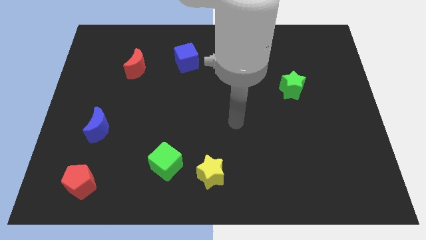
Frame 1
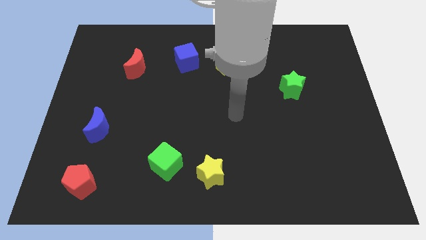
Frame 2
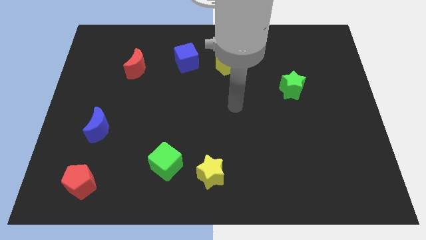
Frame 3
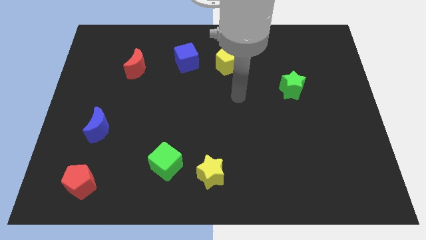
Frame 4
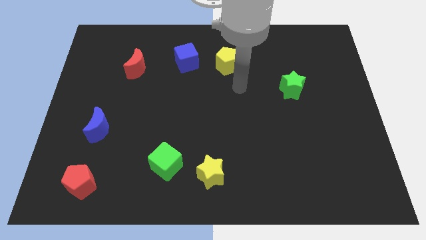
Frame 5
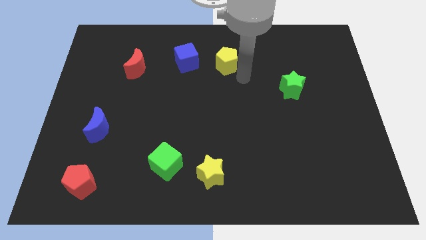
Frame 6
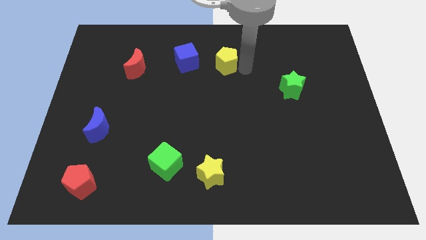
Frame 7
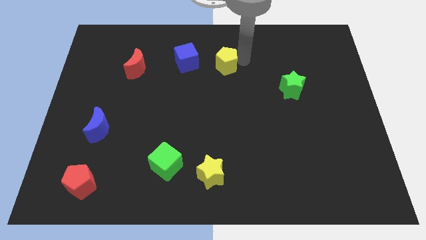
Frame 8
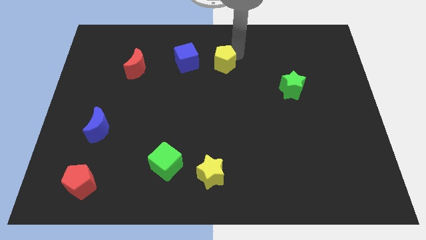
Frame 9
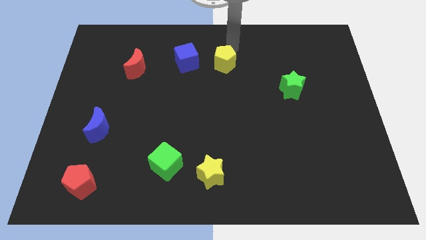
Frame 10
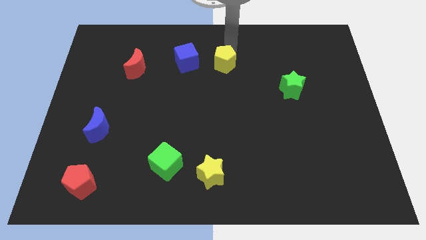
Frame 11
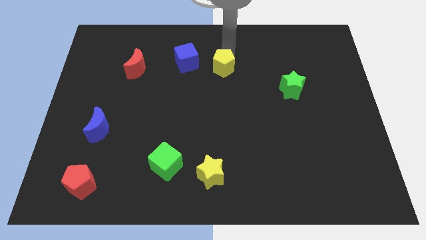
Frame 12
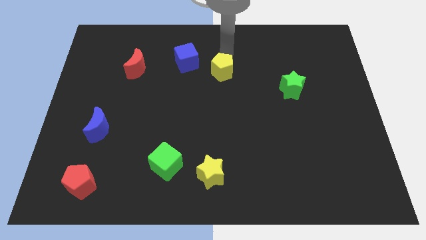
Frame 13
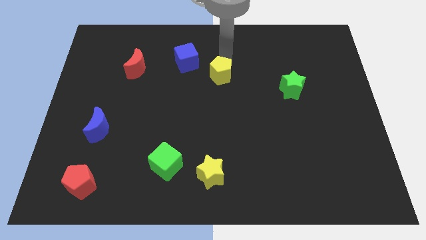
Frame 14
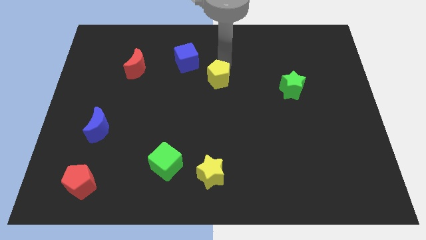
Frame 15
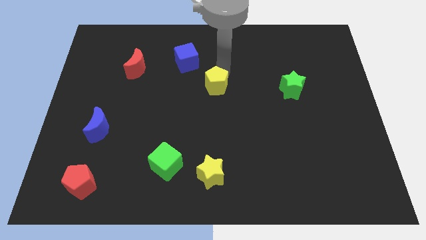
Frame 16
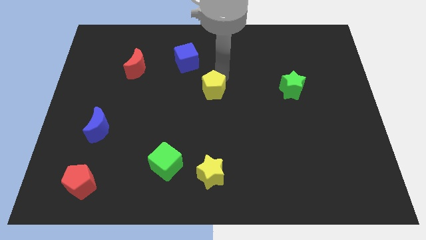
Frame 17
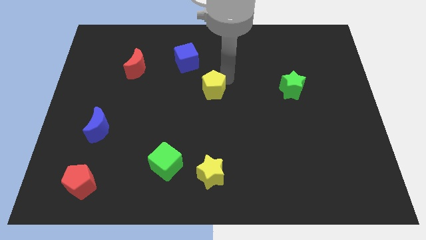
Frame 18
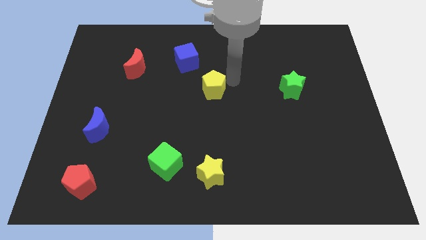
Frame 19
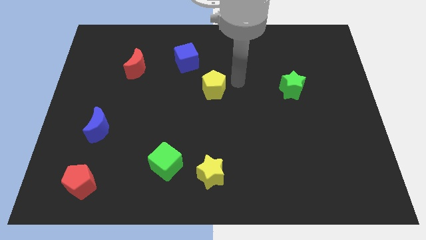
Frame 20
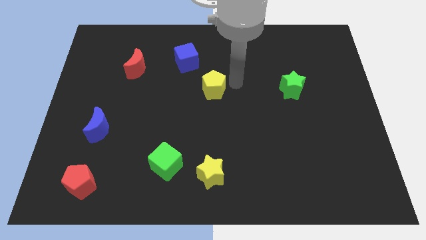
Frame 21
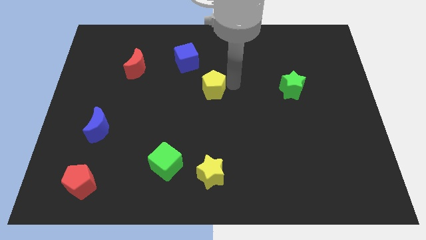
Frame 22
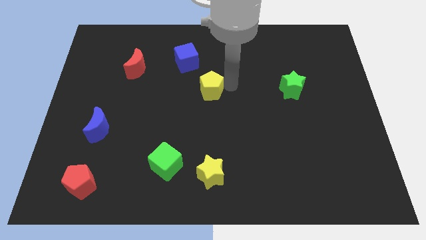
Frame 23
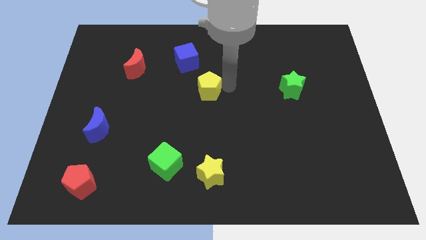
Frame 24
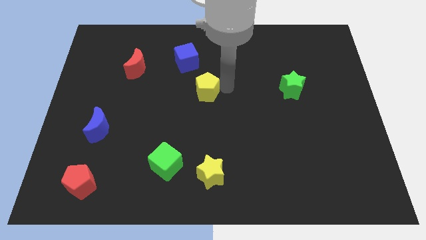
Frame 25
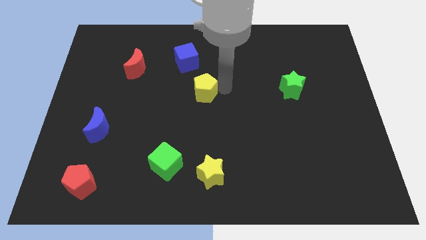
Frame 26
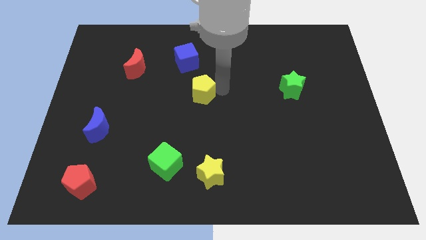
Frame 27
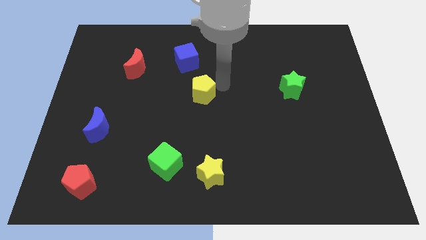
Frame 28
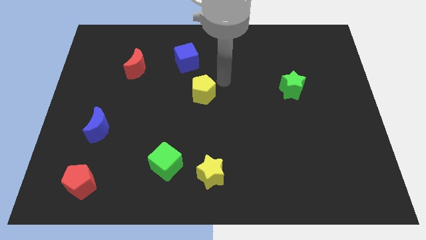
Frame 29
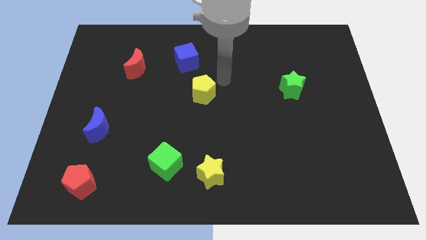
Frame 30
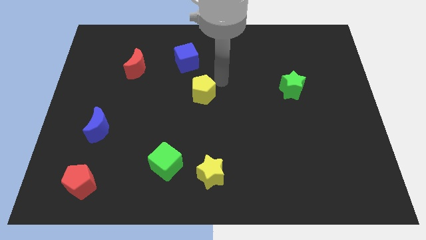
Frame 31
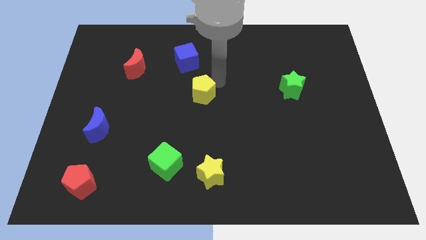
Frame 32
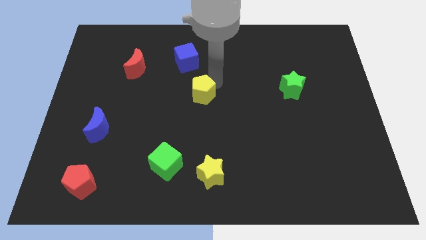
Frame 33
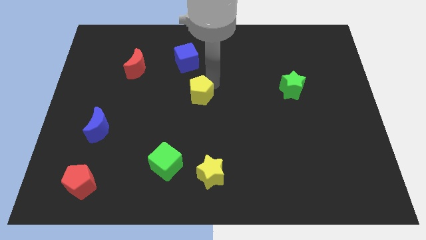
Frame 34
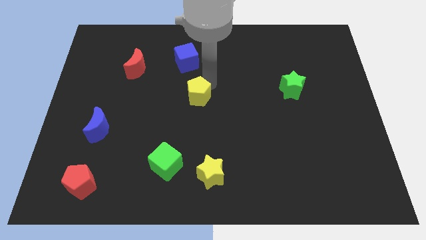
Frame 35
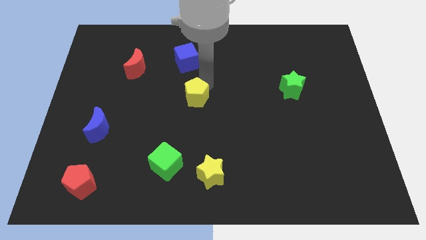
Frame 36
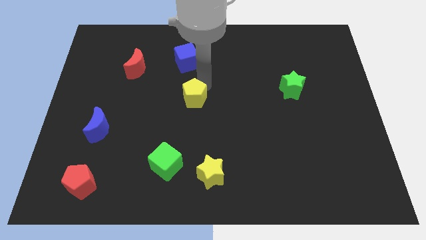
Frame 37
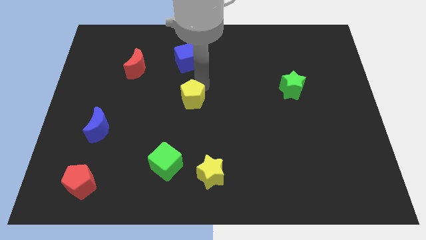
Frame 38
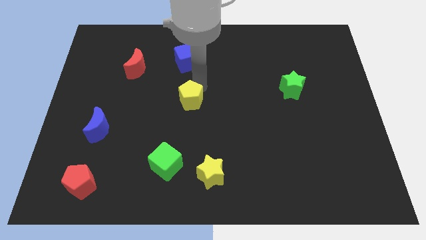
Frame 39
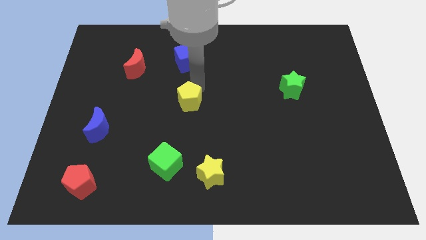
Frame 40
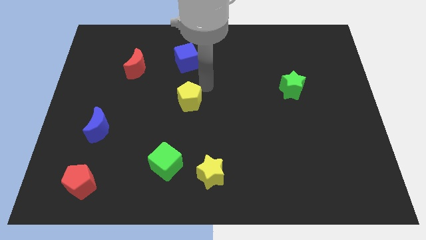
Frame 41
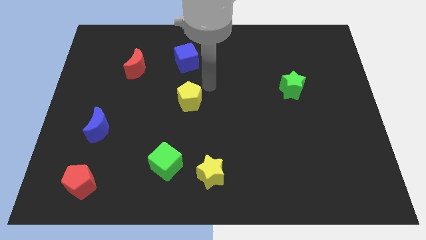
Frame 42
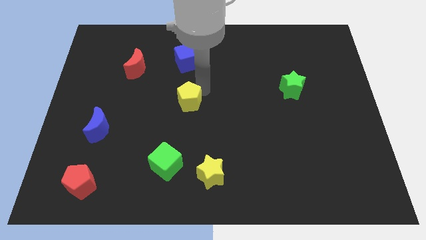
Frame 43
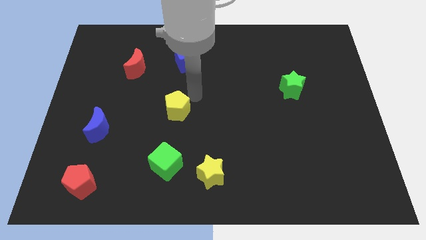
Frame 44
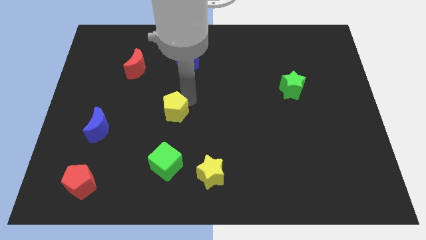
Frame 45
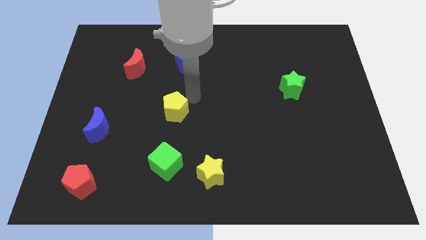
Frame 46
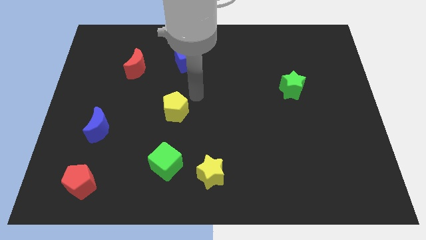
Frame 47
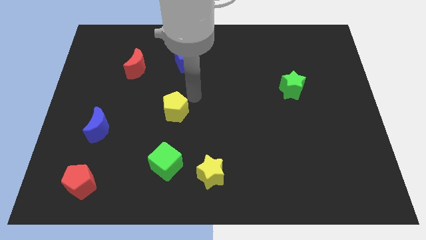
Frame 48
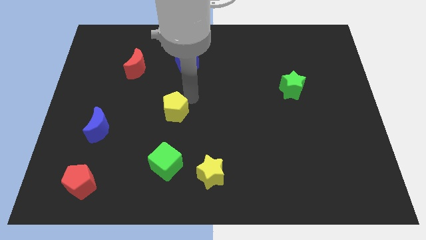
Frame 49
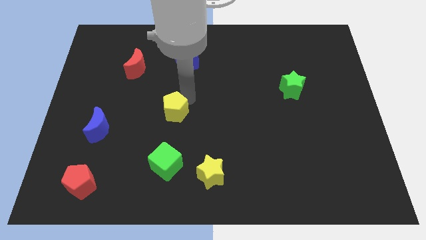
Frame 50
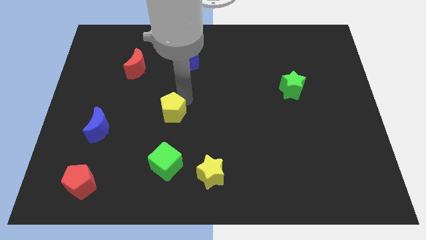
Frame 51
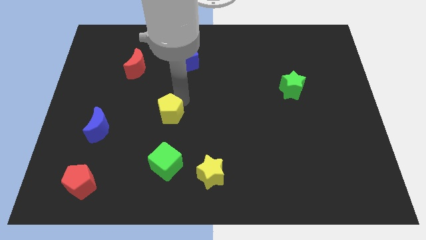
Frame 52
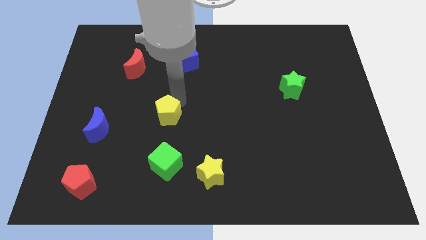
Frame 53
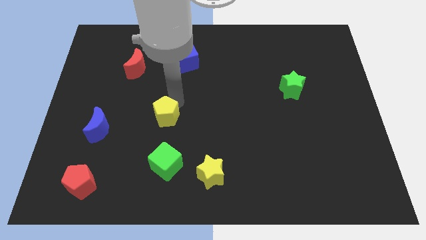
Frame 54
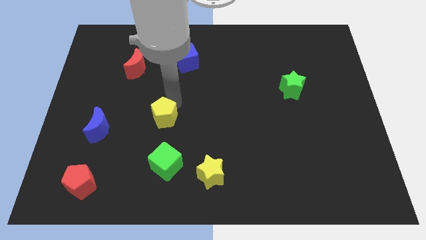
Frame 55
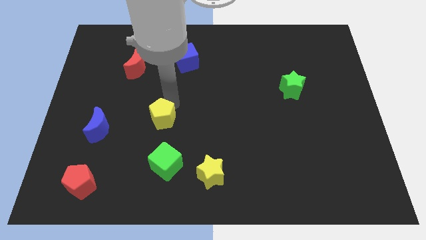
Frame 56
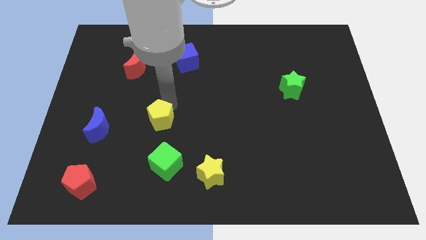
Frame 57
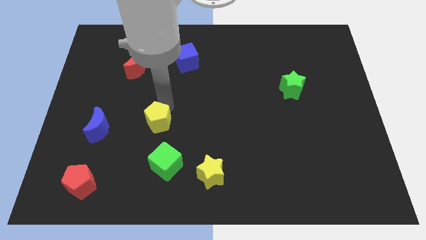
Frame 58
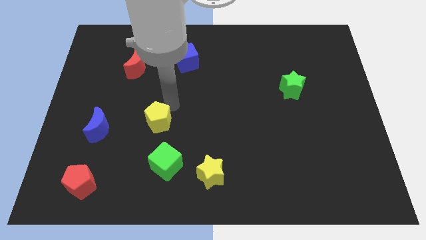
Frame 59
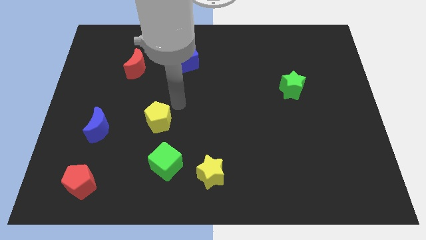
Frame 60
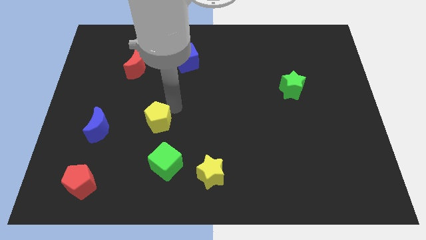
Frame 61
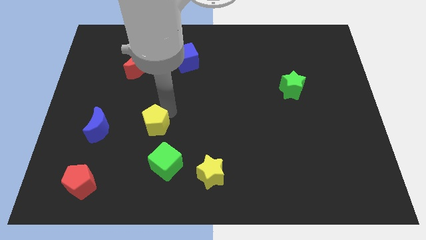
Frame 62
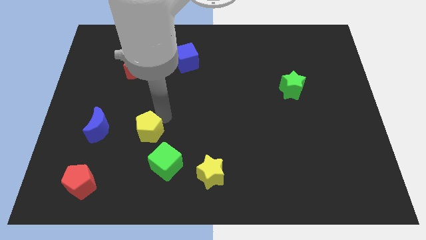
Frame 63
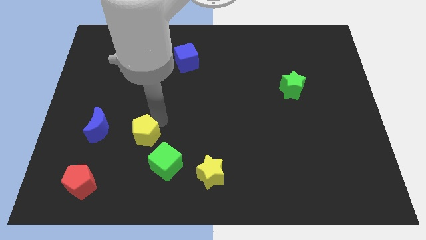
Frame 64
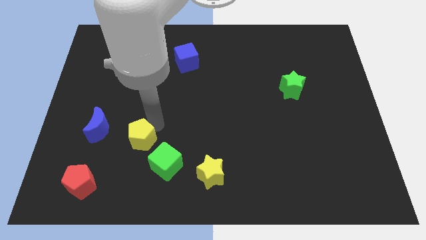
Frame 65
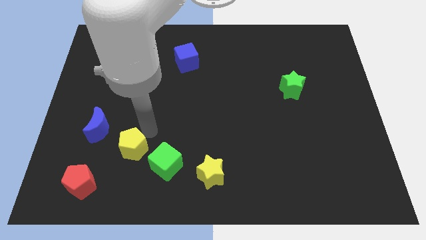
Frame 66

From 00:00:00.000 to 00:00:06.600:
put the yellow pentagon diagonally up and to the right of the red pentagon

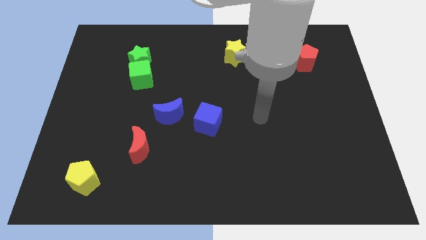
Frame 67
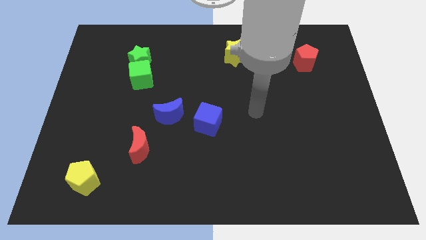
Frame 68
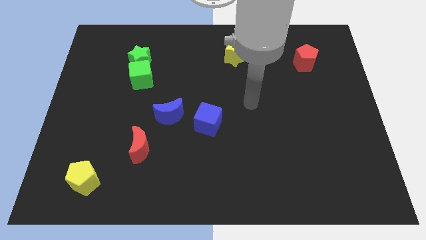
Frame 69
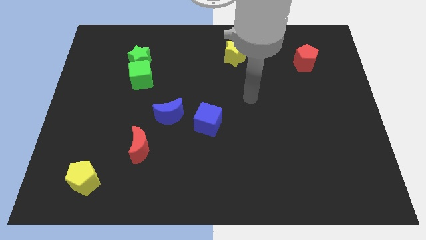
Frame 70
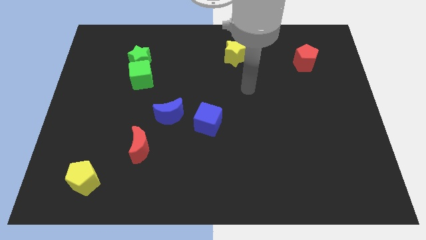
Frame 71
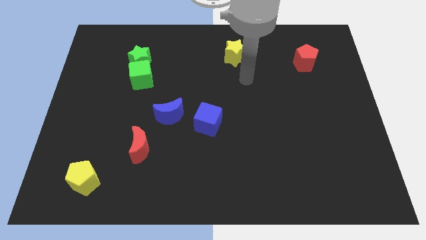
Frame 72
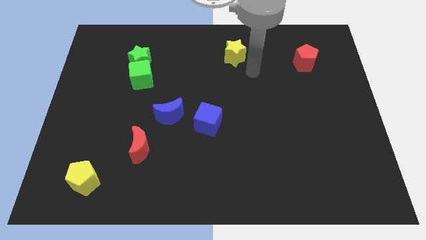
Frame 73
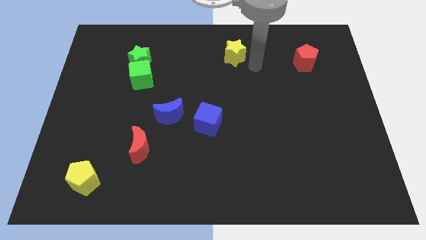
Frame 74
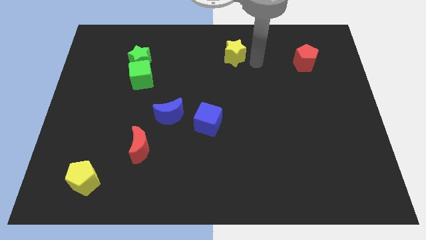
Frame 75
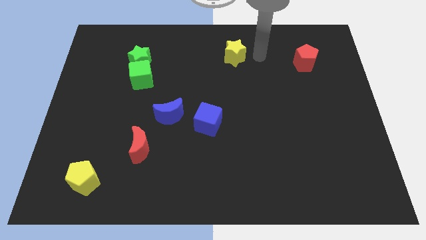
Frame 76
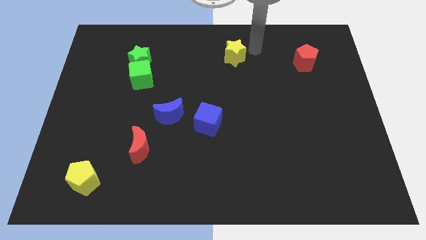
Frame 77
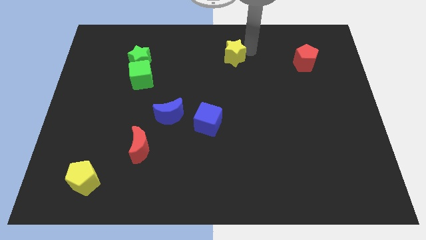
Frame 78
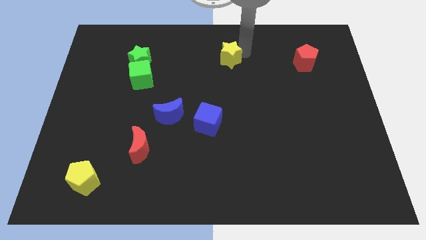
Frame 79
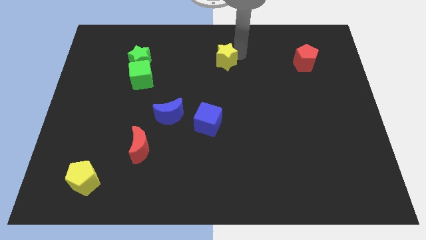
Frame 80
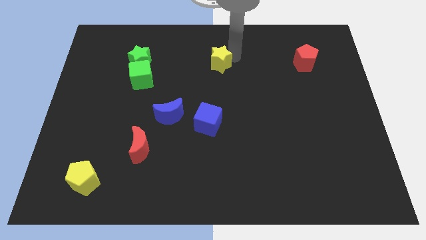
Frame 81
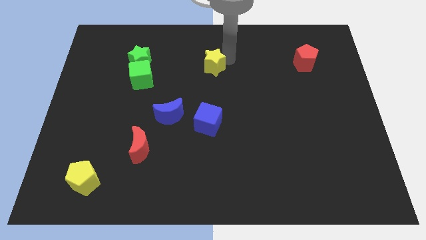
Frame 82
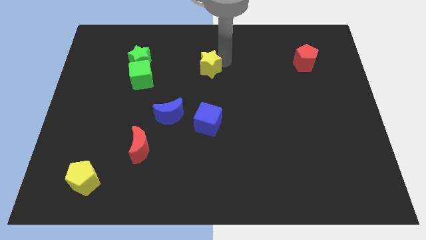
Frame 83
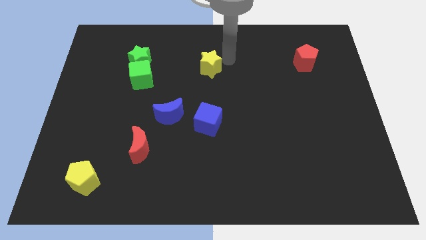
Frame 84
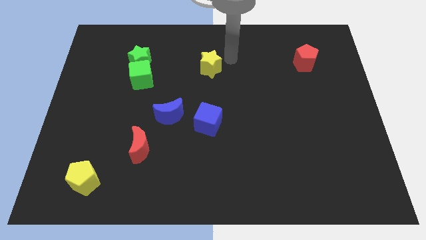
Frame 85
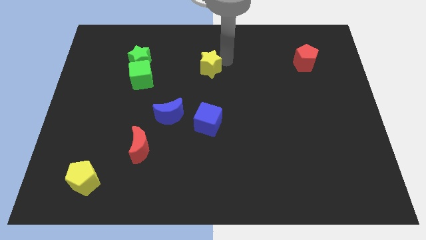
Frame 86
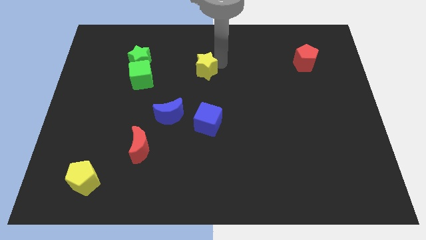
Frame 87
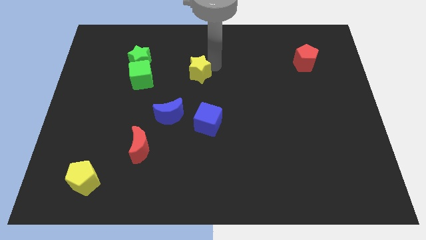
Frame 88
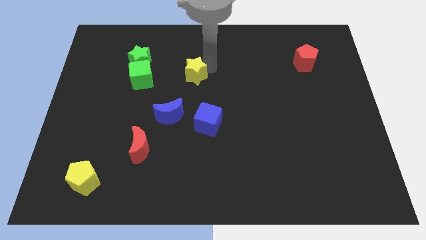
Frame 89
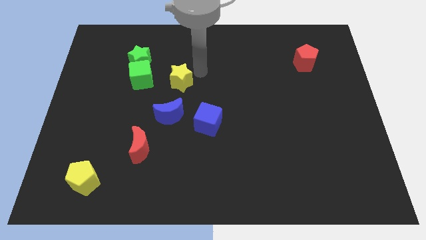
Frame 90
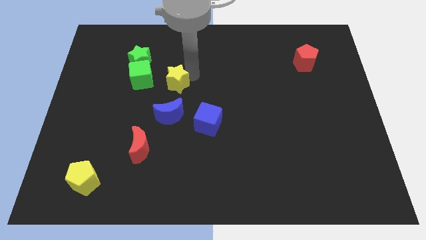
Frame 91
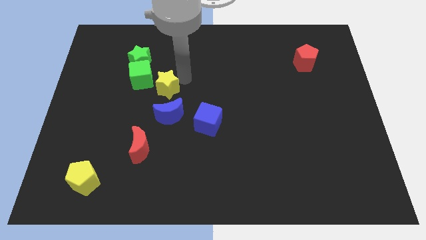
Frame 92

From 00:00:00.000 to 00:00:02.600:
slide the yellow star diagonally up and to the left of the blue moon
